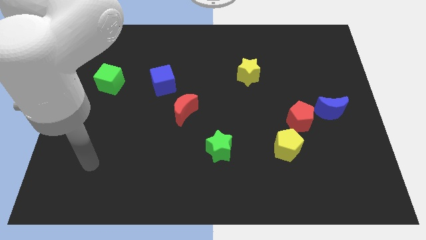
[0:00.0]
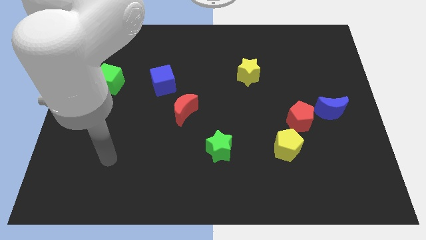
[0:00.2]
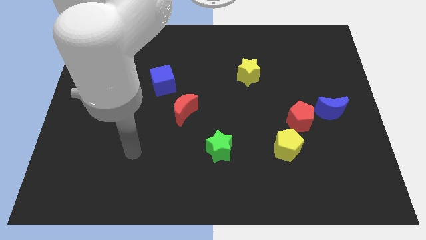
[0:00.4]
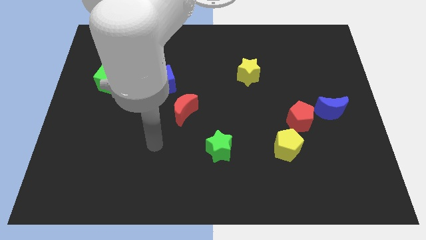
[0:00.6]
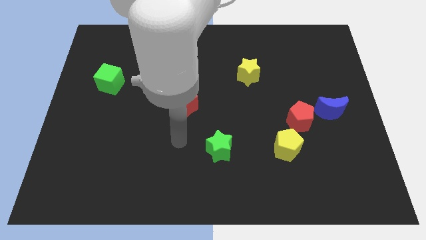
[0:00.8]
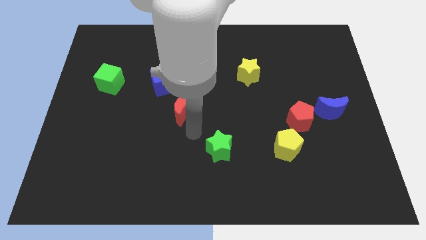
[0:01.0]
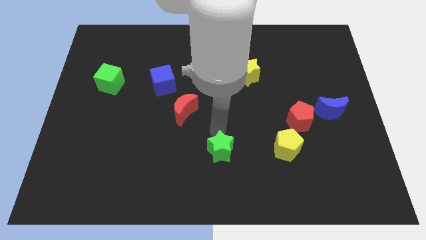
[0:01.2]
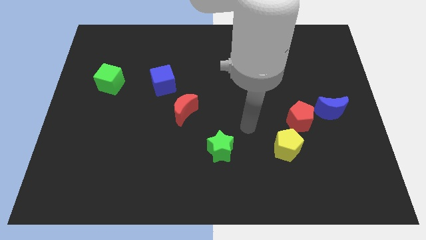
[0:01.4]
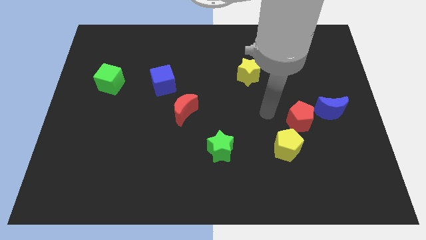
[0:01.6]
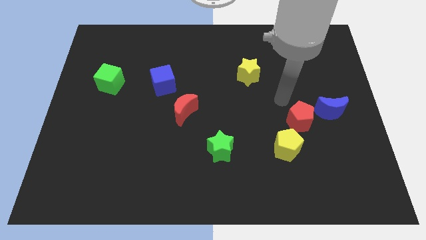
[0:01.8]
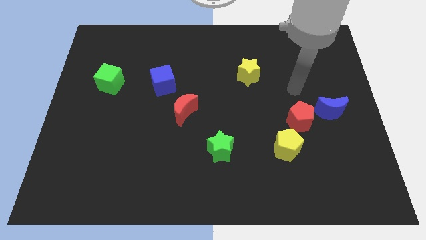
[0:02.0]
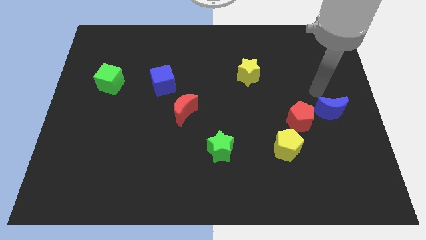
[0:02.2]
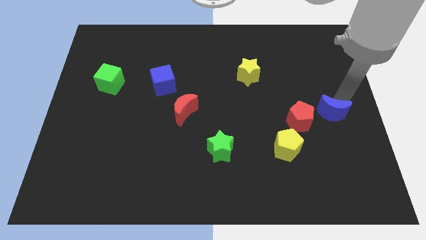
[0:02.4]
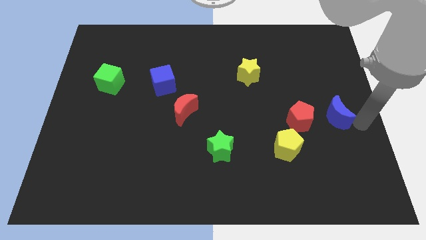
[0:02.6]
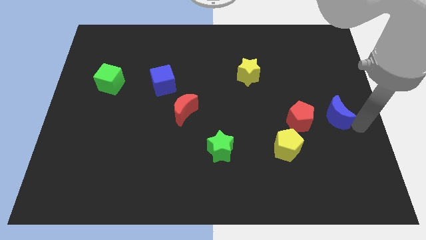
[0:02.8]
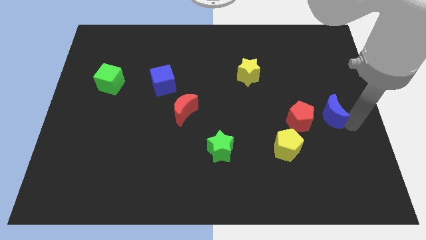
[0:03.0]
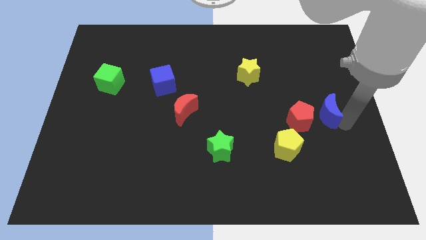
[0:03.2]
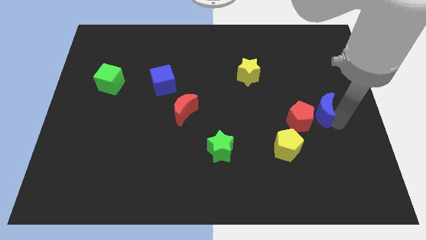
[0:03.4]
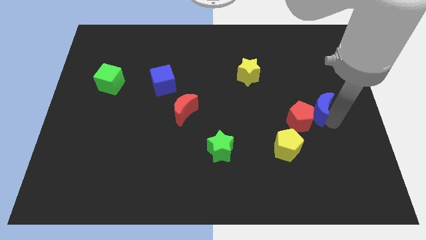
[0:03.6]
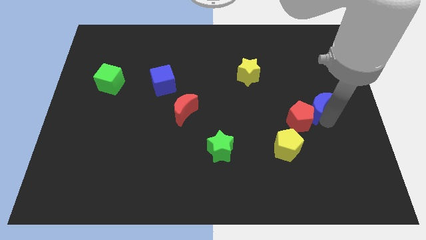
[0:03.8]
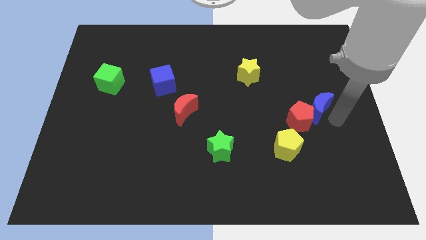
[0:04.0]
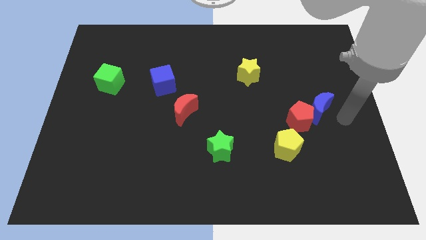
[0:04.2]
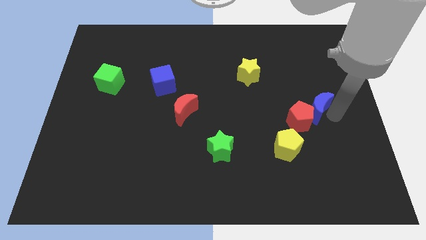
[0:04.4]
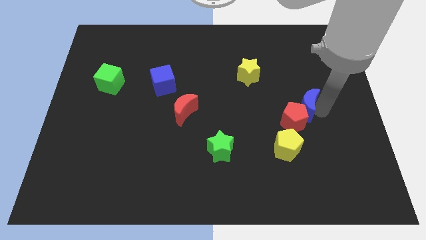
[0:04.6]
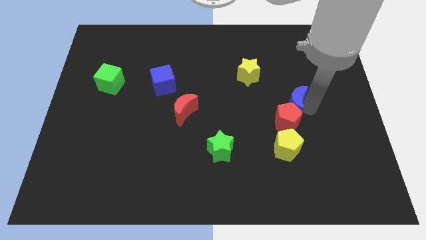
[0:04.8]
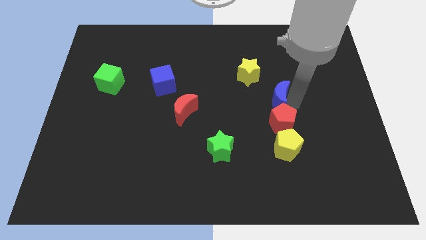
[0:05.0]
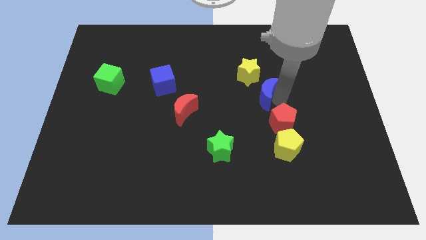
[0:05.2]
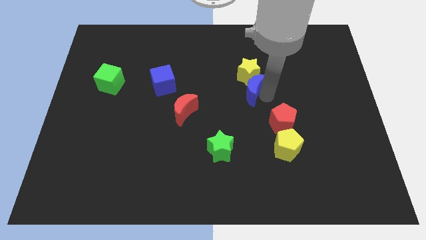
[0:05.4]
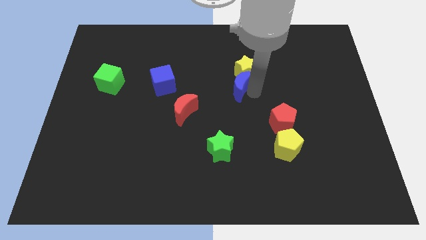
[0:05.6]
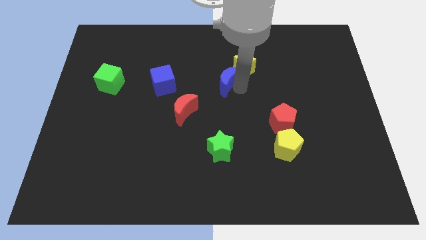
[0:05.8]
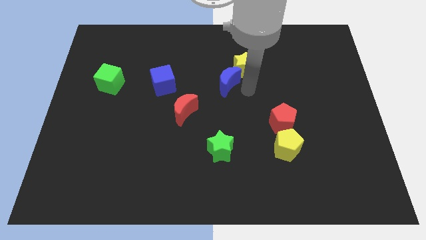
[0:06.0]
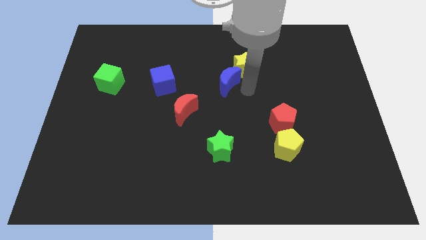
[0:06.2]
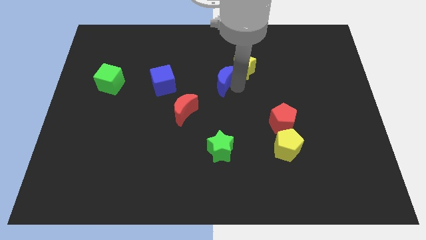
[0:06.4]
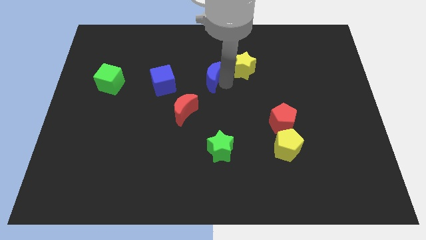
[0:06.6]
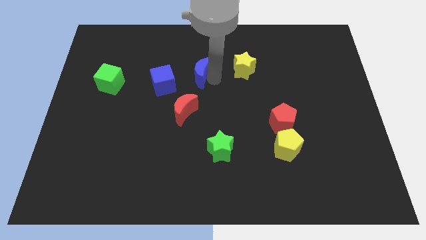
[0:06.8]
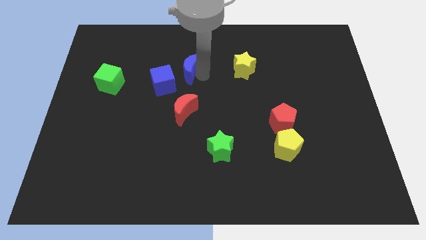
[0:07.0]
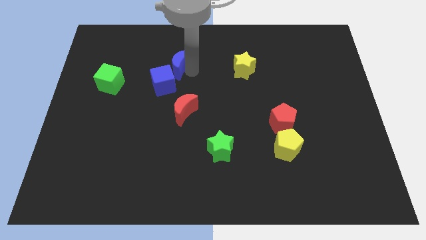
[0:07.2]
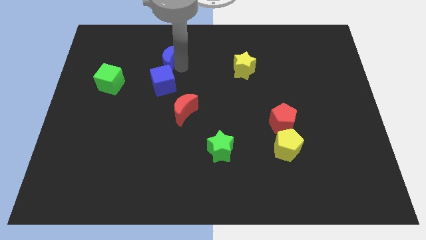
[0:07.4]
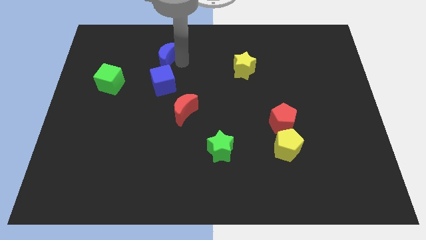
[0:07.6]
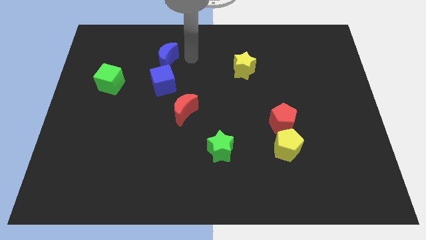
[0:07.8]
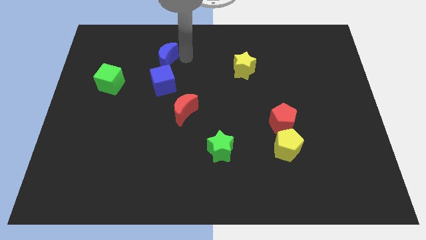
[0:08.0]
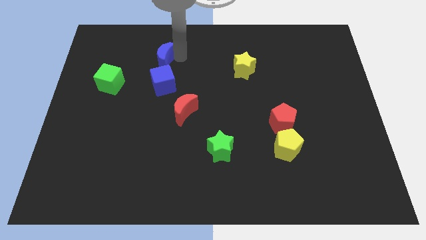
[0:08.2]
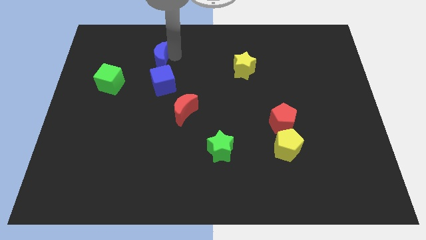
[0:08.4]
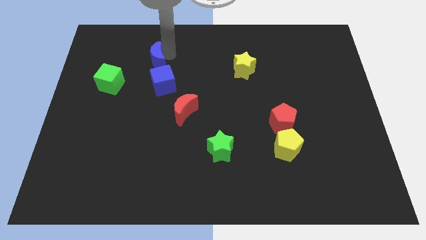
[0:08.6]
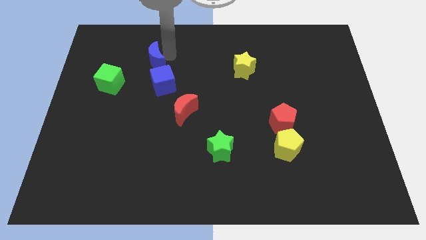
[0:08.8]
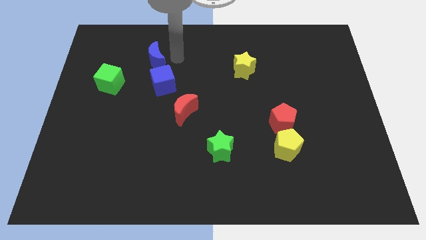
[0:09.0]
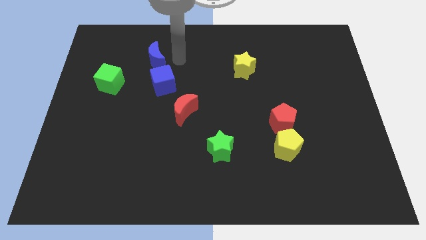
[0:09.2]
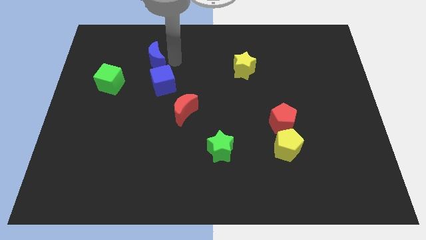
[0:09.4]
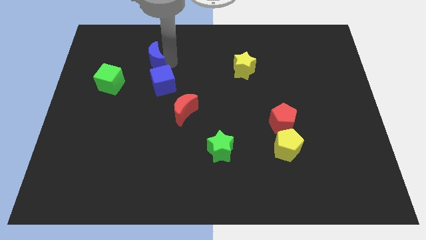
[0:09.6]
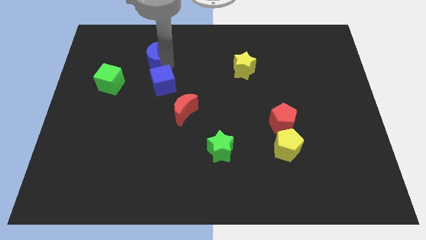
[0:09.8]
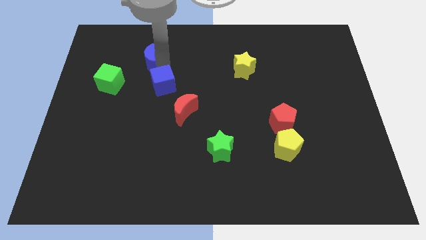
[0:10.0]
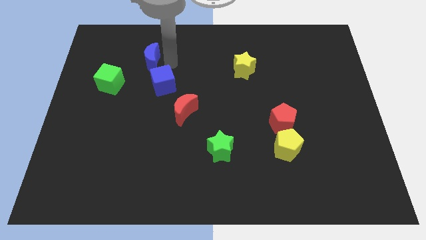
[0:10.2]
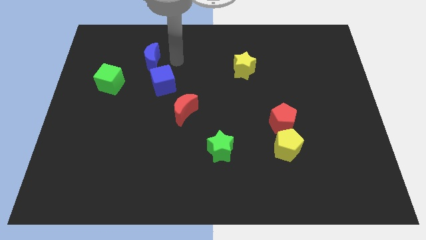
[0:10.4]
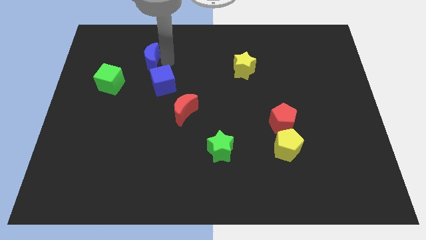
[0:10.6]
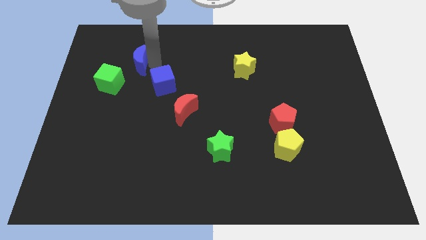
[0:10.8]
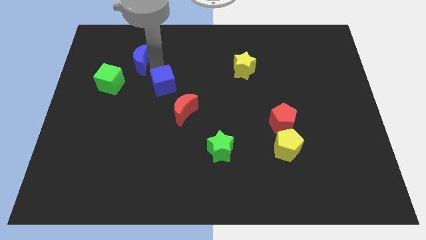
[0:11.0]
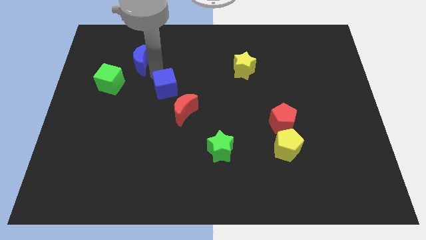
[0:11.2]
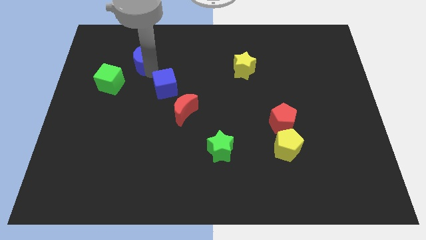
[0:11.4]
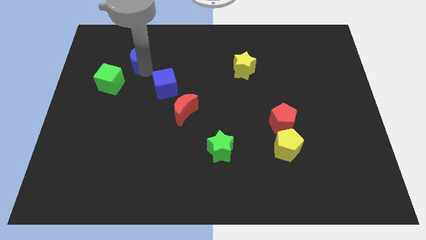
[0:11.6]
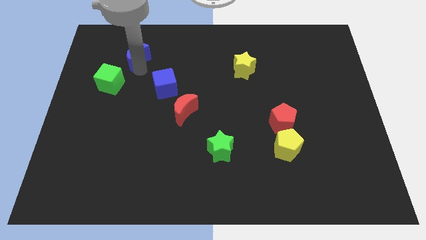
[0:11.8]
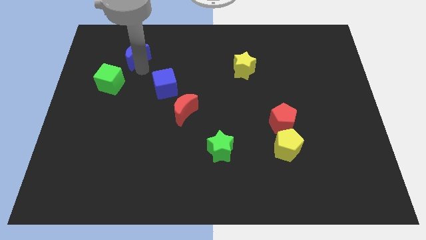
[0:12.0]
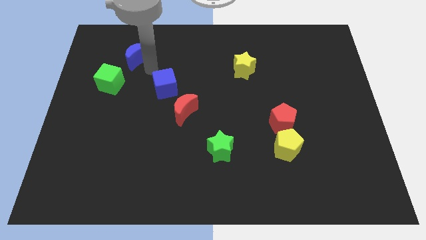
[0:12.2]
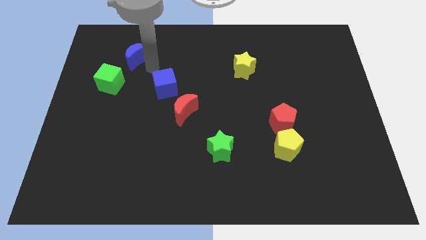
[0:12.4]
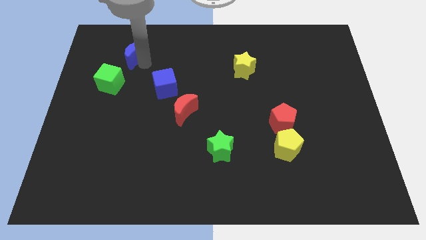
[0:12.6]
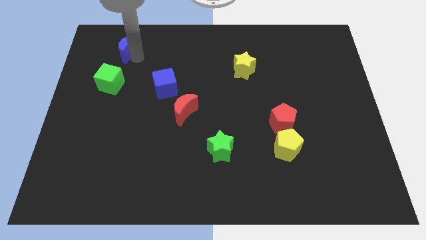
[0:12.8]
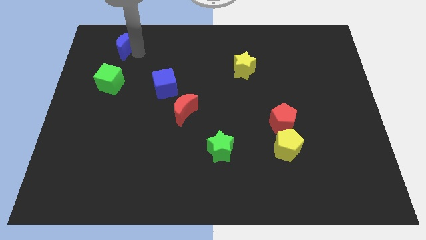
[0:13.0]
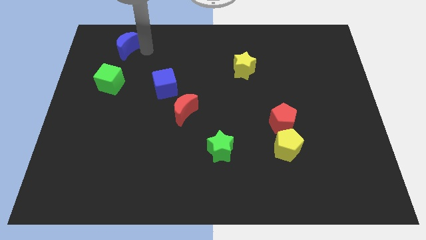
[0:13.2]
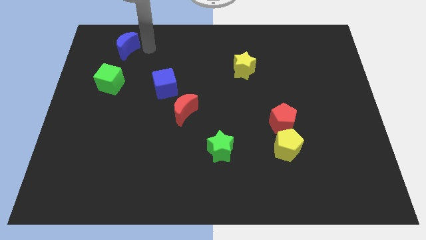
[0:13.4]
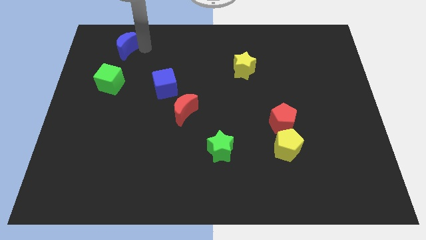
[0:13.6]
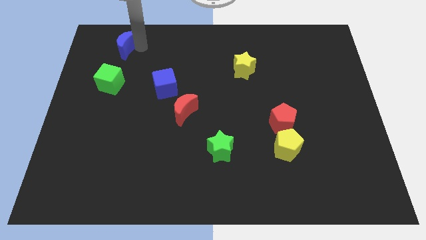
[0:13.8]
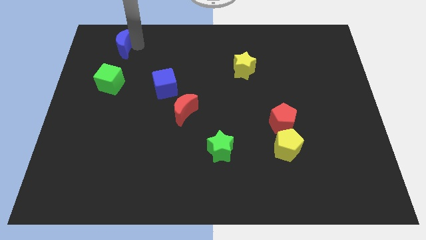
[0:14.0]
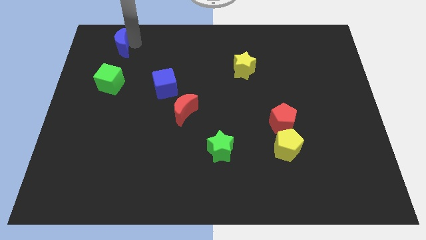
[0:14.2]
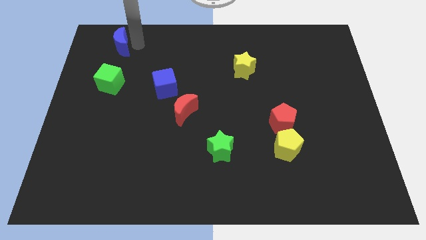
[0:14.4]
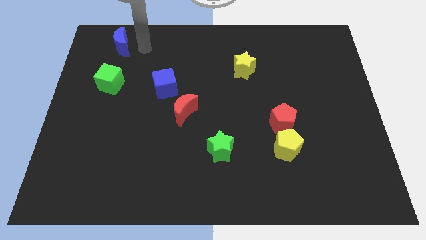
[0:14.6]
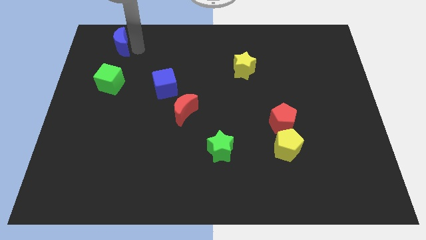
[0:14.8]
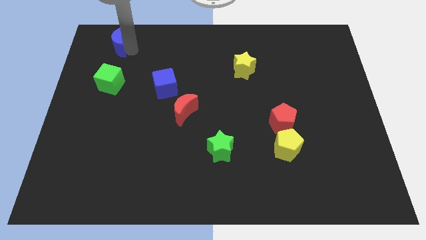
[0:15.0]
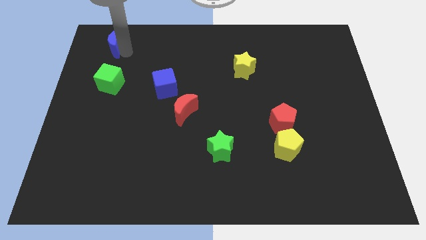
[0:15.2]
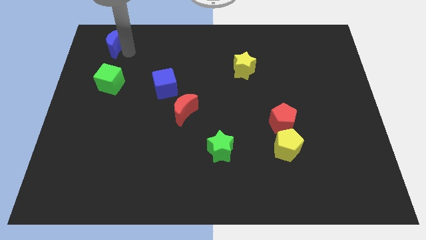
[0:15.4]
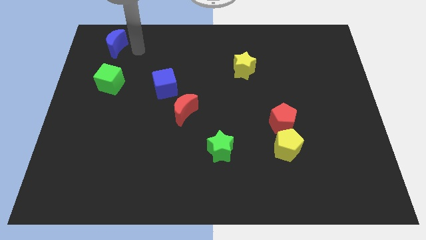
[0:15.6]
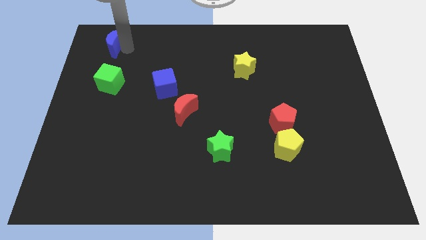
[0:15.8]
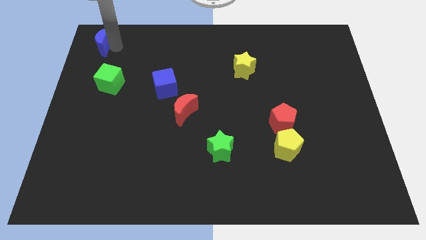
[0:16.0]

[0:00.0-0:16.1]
push the blue moon to the top left of the board
